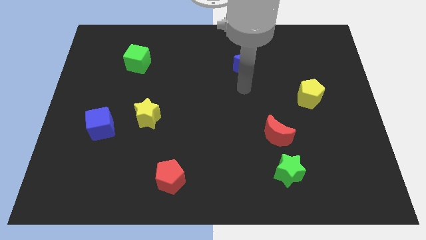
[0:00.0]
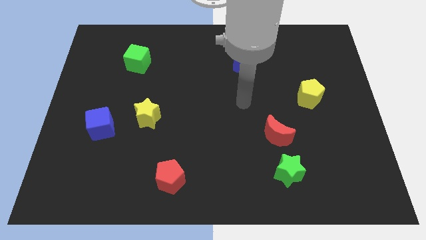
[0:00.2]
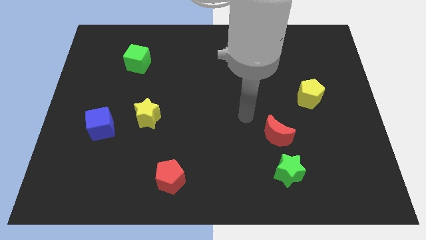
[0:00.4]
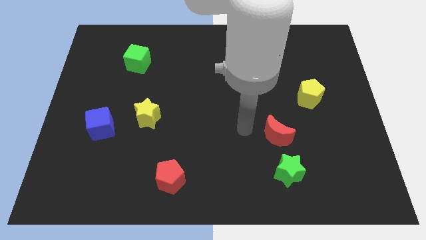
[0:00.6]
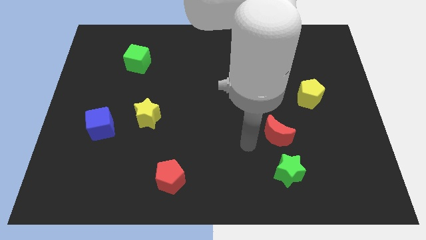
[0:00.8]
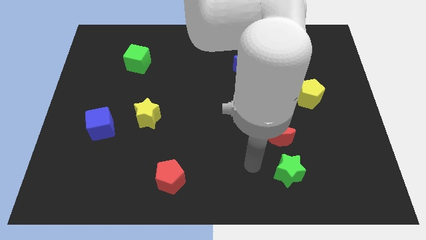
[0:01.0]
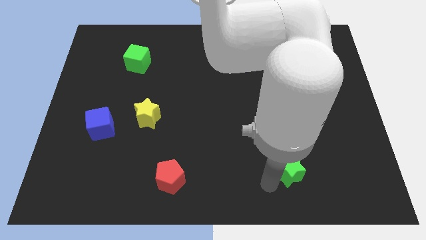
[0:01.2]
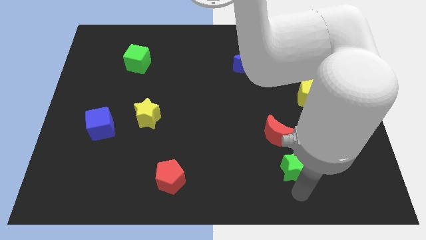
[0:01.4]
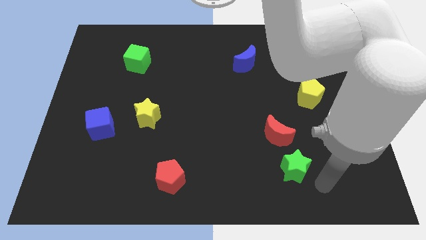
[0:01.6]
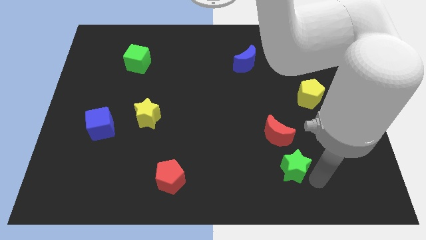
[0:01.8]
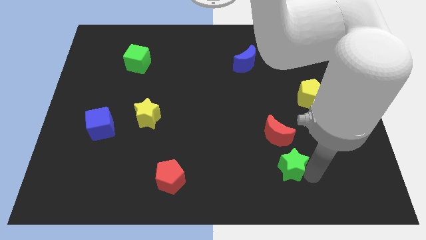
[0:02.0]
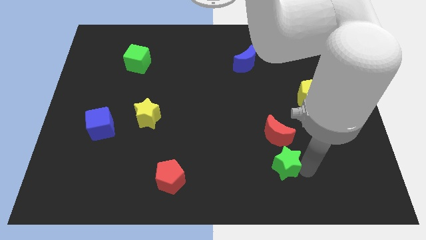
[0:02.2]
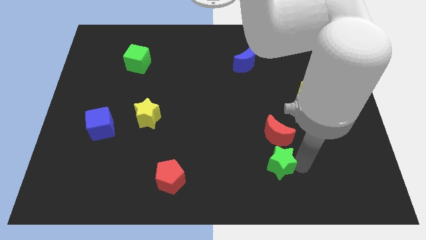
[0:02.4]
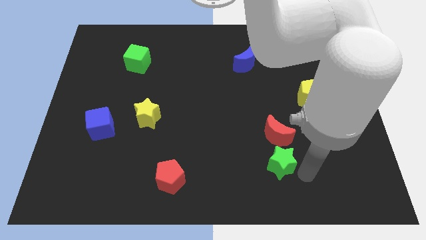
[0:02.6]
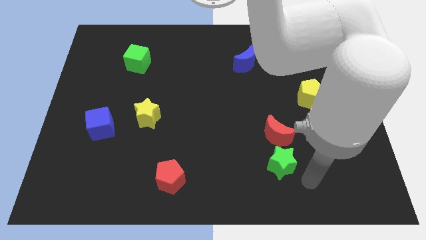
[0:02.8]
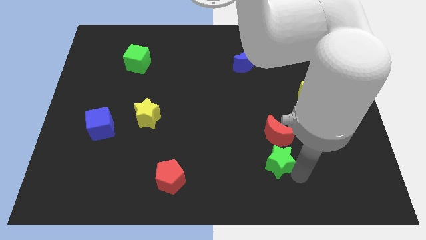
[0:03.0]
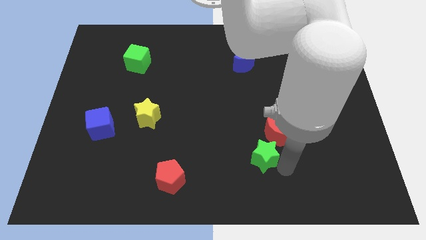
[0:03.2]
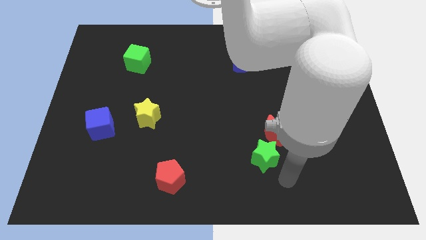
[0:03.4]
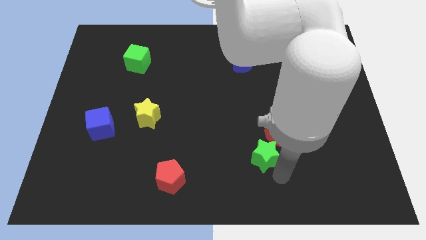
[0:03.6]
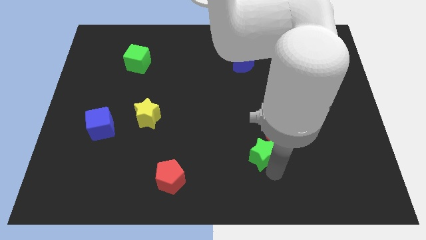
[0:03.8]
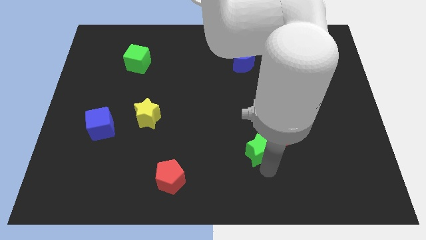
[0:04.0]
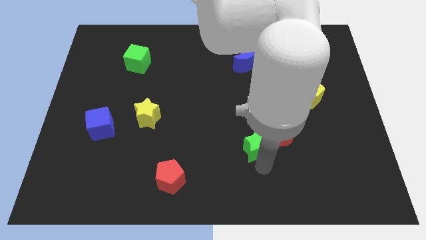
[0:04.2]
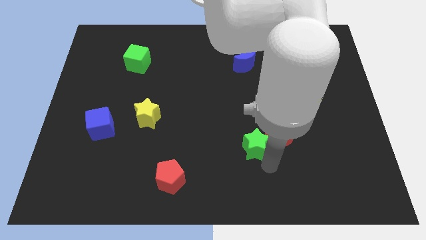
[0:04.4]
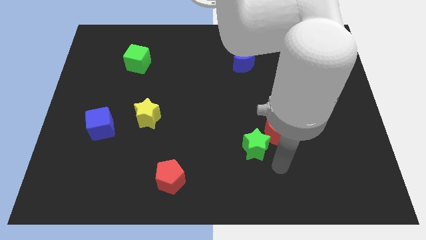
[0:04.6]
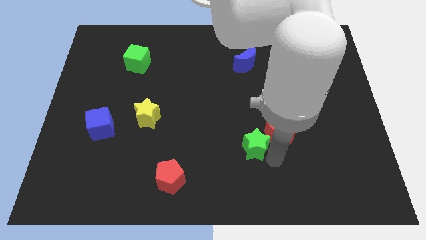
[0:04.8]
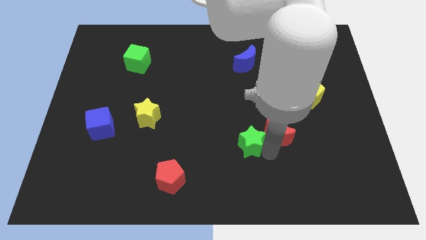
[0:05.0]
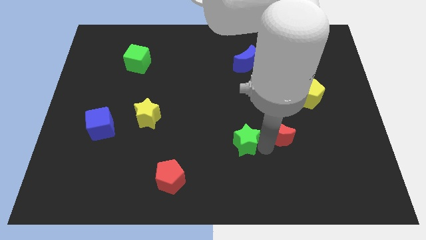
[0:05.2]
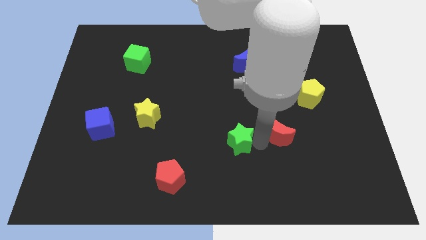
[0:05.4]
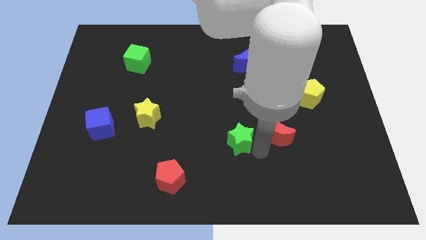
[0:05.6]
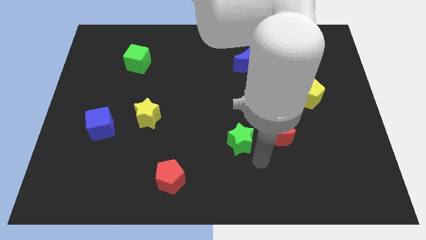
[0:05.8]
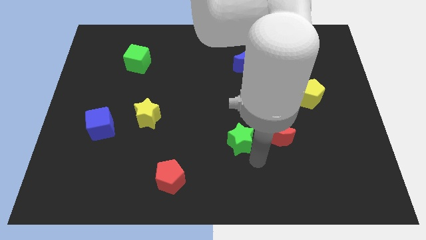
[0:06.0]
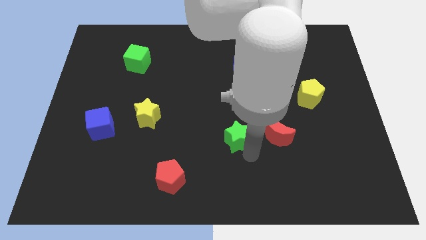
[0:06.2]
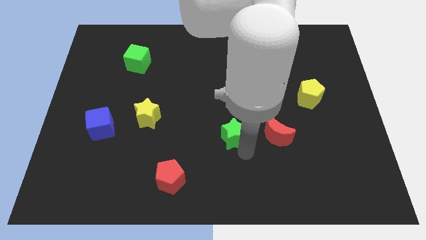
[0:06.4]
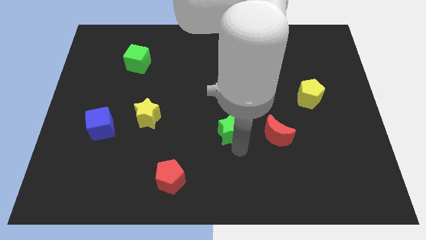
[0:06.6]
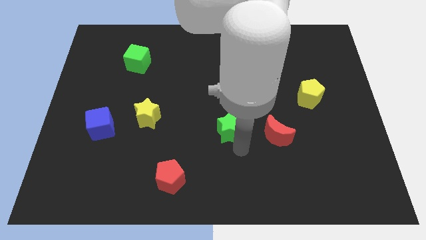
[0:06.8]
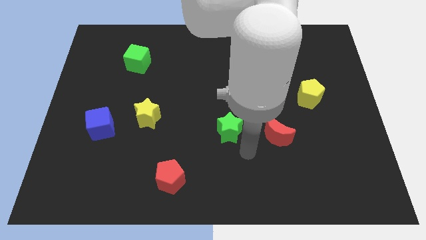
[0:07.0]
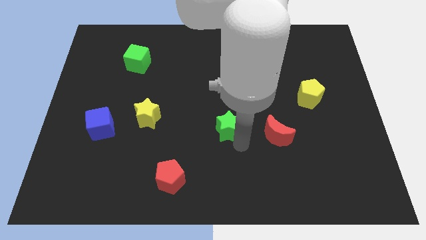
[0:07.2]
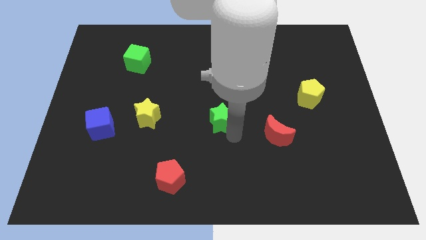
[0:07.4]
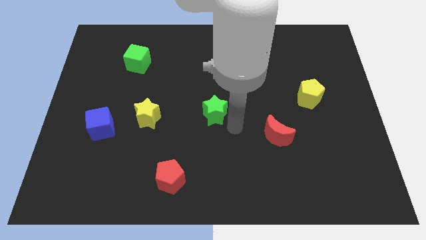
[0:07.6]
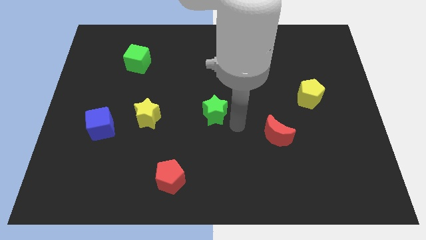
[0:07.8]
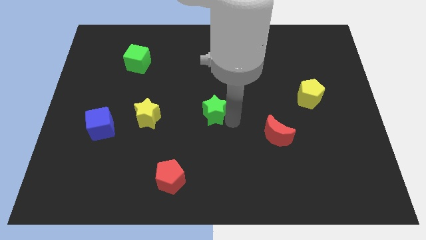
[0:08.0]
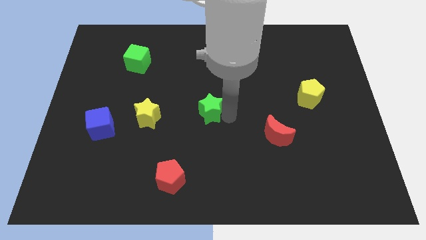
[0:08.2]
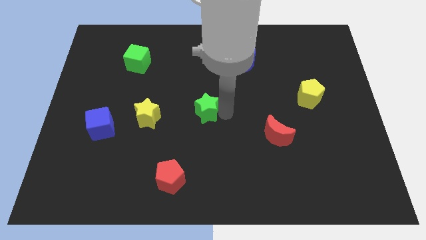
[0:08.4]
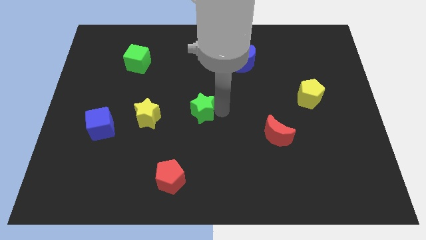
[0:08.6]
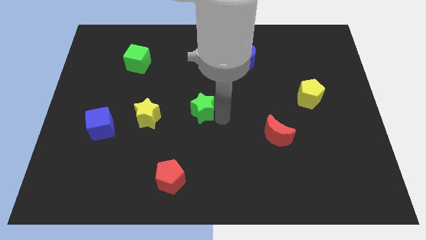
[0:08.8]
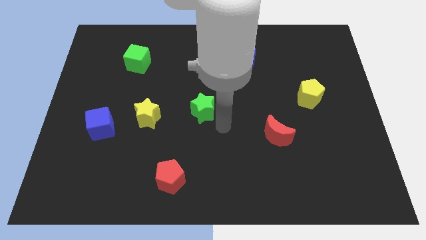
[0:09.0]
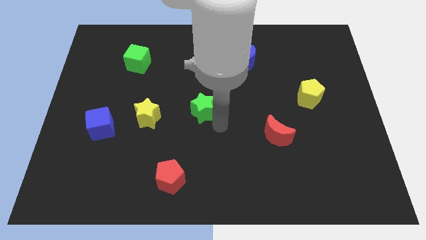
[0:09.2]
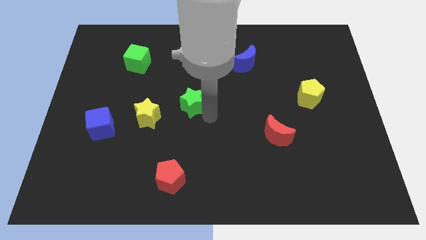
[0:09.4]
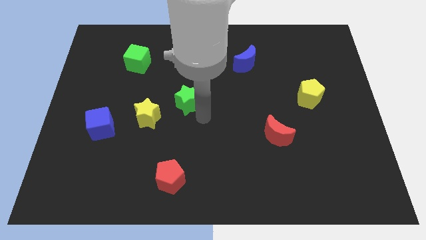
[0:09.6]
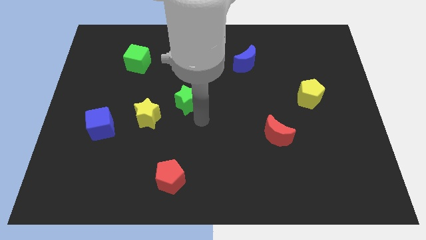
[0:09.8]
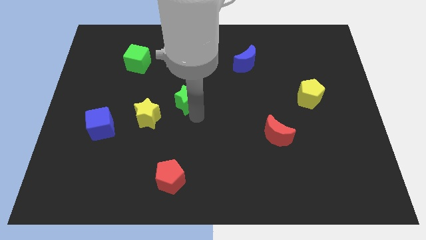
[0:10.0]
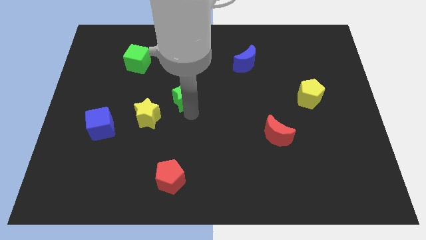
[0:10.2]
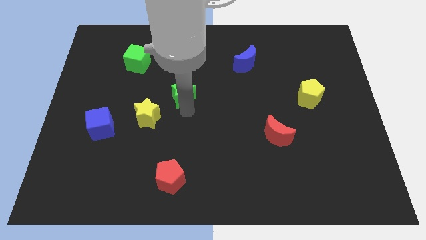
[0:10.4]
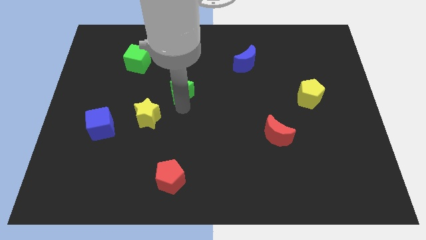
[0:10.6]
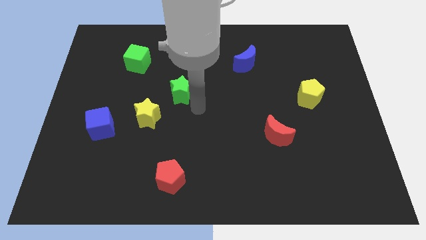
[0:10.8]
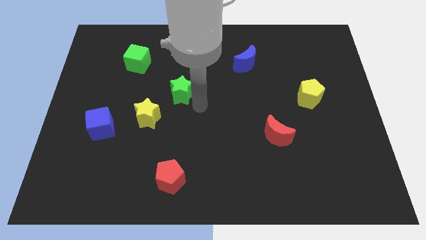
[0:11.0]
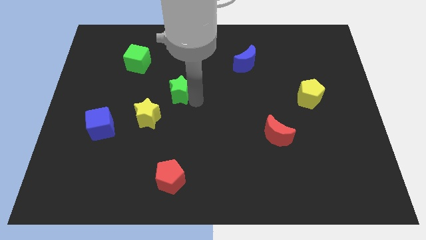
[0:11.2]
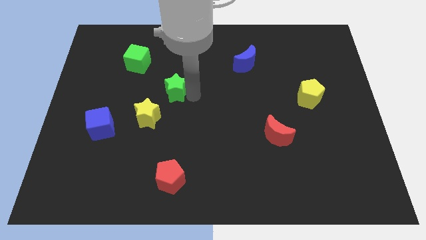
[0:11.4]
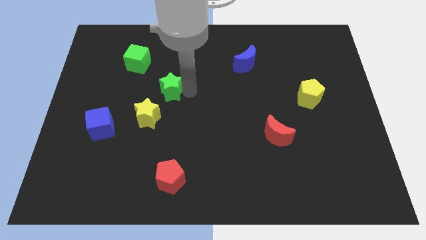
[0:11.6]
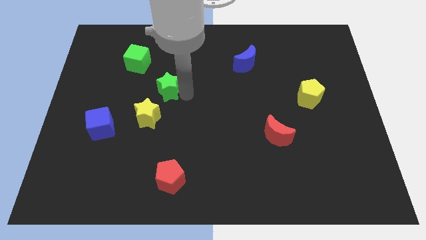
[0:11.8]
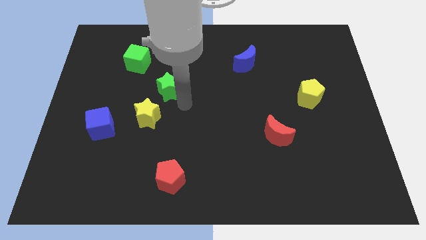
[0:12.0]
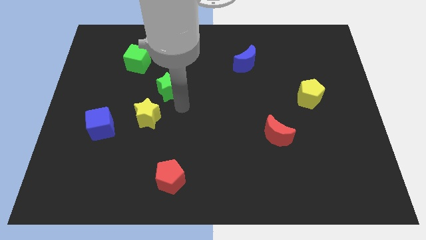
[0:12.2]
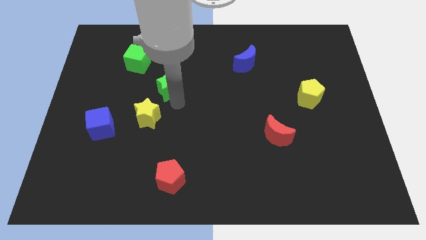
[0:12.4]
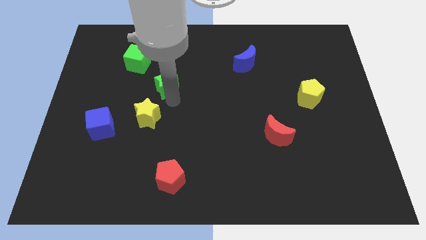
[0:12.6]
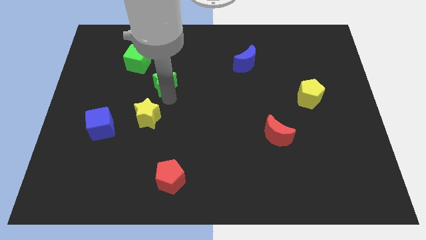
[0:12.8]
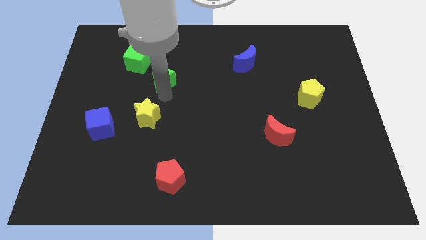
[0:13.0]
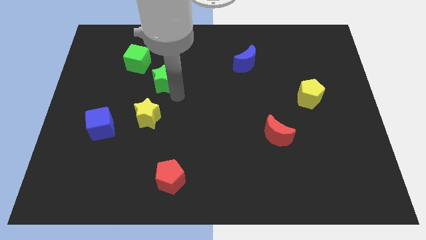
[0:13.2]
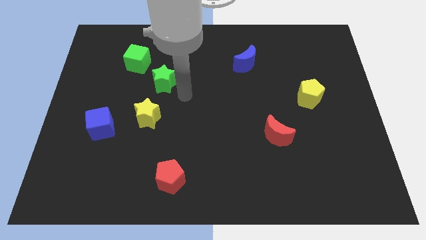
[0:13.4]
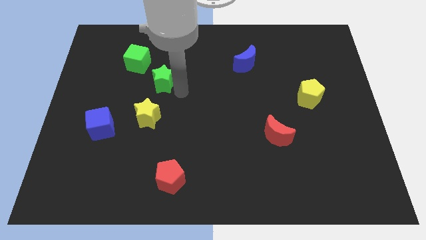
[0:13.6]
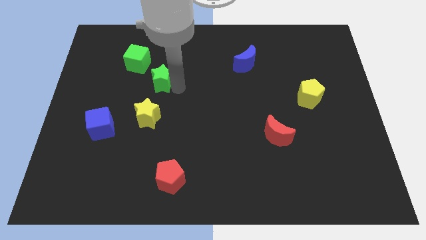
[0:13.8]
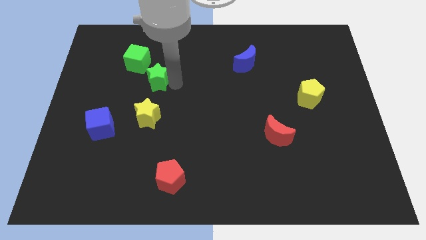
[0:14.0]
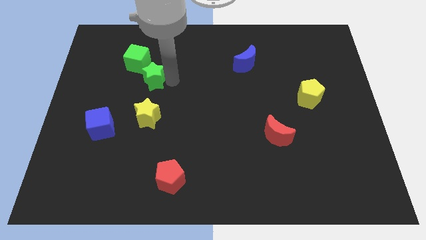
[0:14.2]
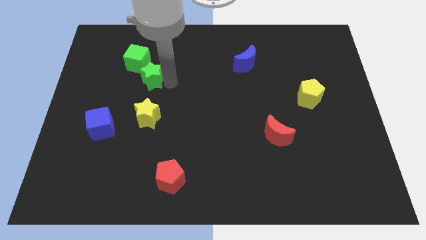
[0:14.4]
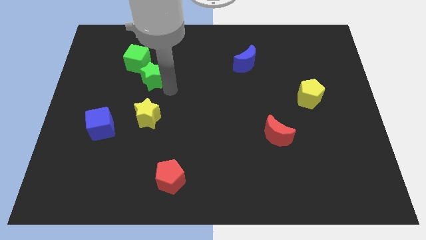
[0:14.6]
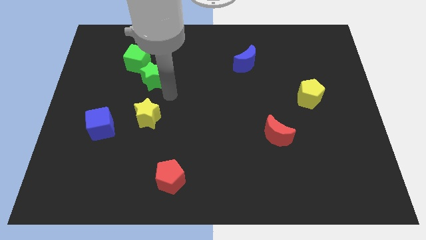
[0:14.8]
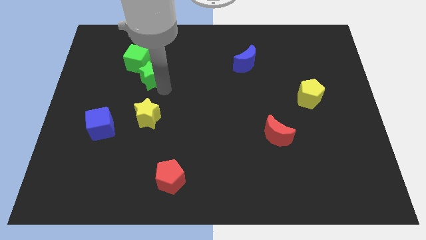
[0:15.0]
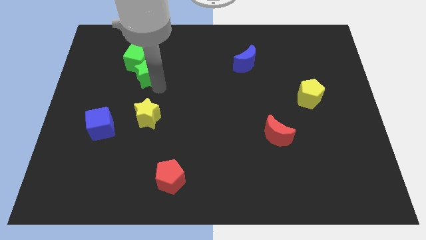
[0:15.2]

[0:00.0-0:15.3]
move the green star towards the green cube
